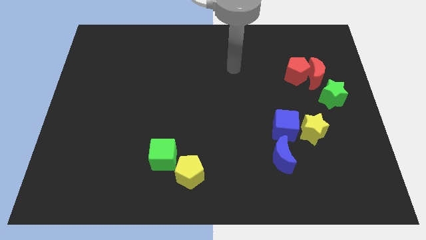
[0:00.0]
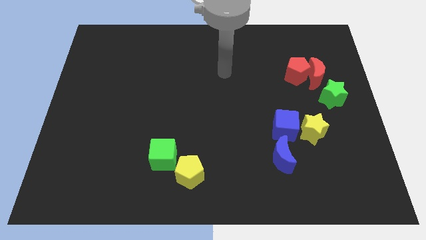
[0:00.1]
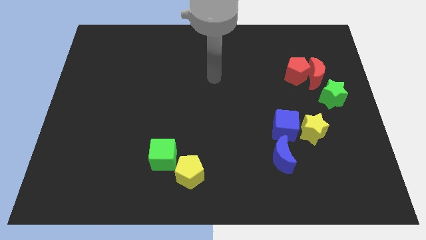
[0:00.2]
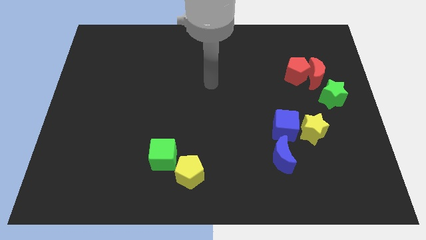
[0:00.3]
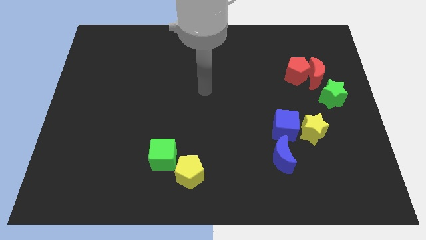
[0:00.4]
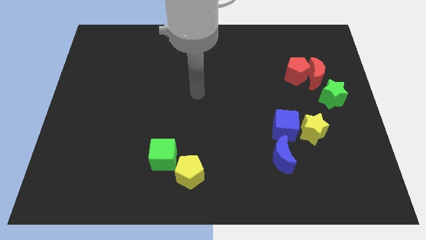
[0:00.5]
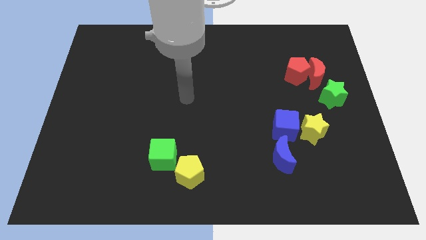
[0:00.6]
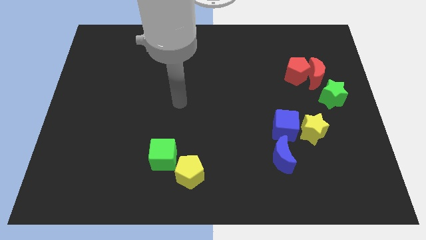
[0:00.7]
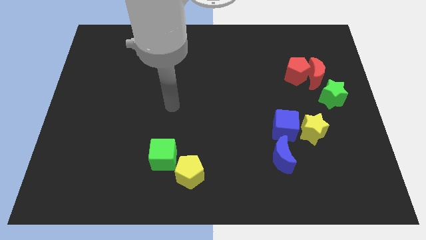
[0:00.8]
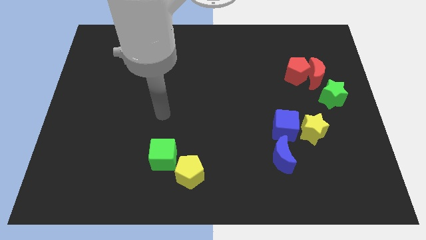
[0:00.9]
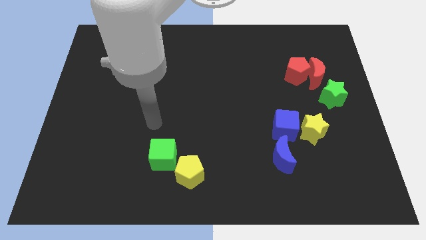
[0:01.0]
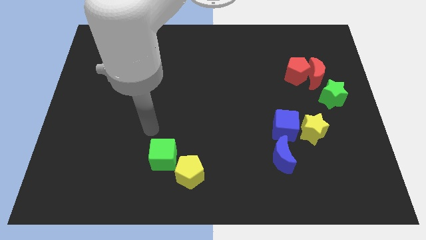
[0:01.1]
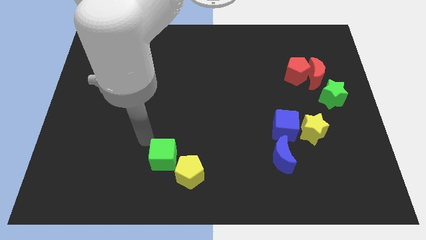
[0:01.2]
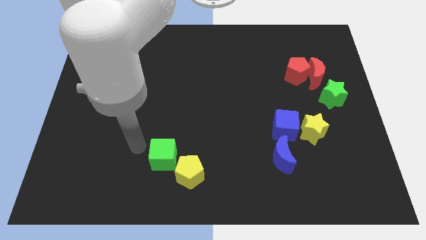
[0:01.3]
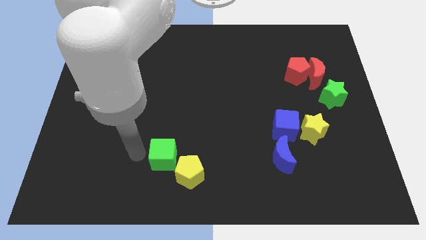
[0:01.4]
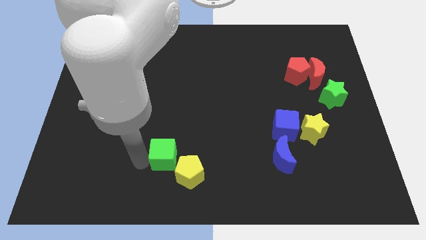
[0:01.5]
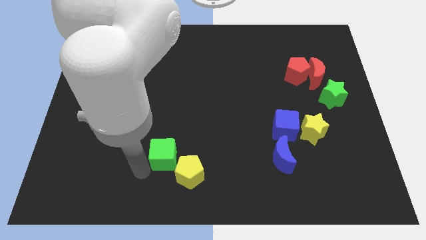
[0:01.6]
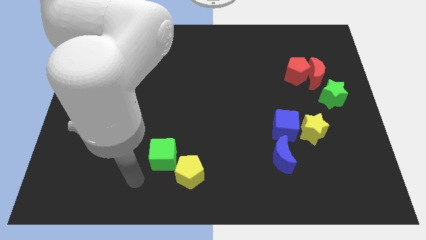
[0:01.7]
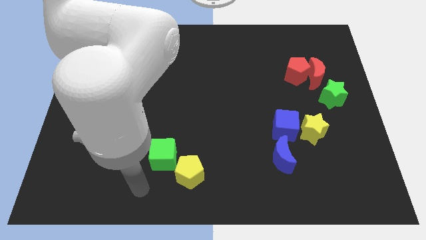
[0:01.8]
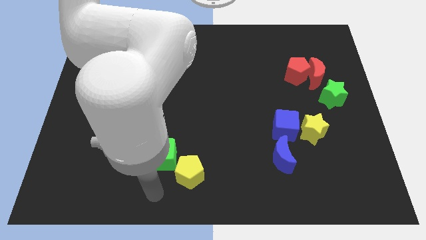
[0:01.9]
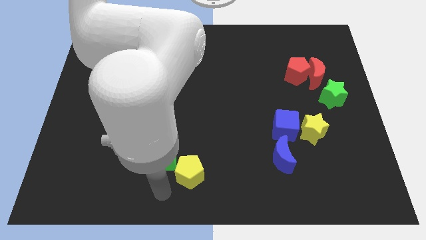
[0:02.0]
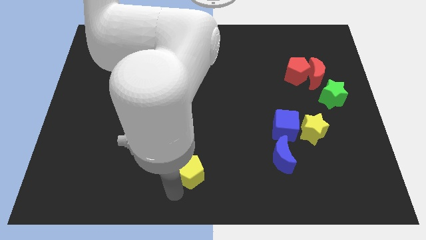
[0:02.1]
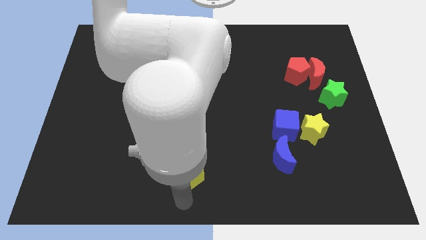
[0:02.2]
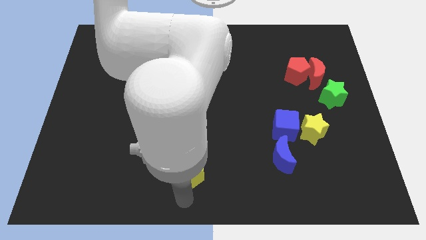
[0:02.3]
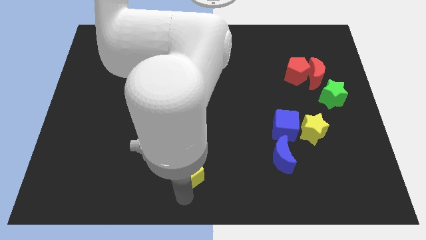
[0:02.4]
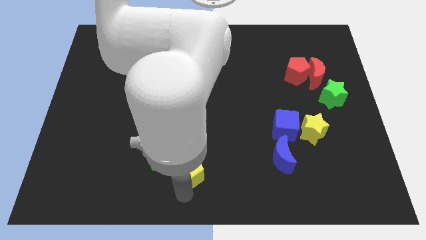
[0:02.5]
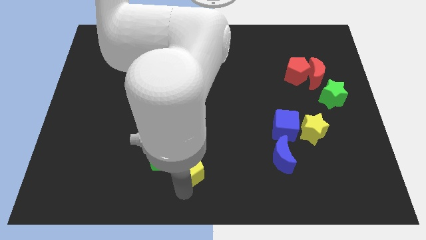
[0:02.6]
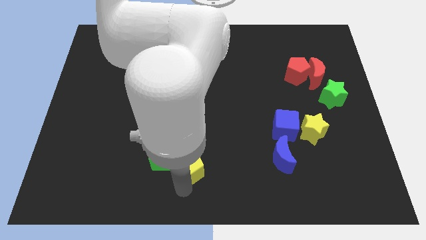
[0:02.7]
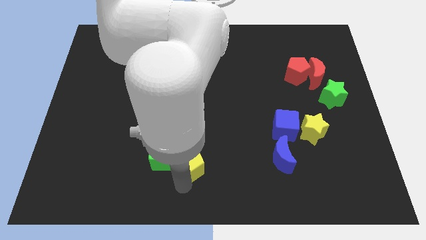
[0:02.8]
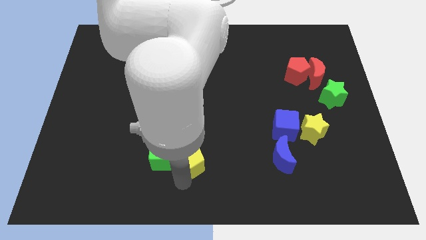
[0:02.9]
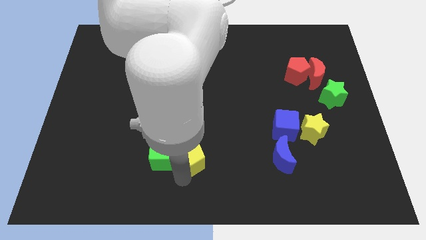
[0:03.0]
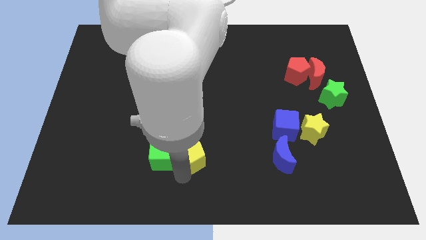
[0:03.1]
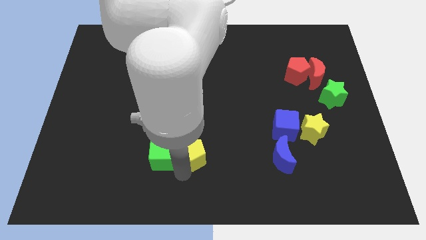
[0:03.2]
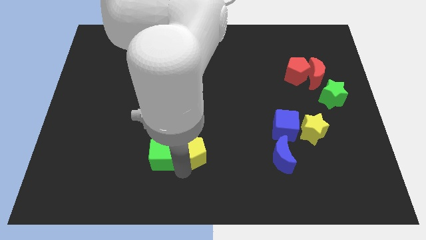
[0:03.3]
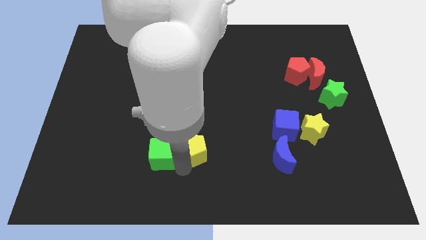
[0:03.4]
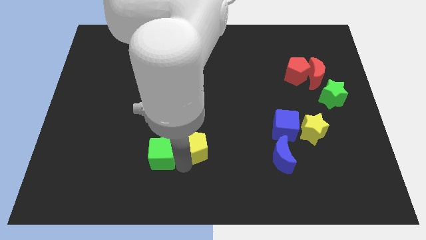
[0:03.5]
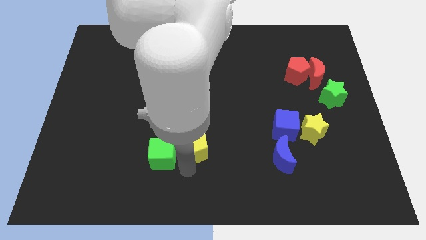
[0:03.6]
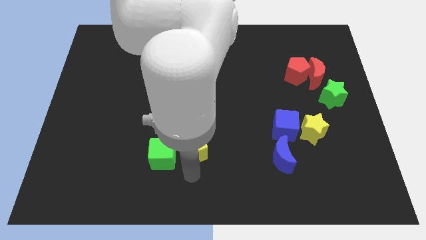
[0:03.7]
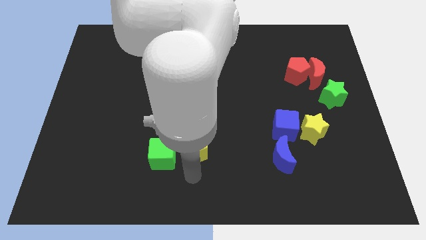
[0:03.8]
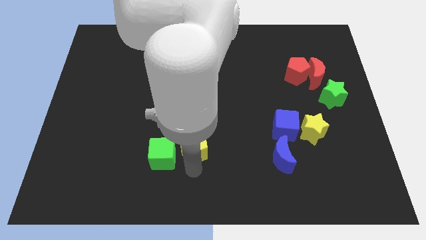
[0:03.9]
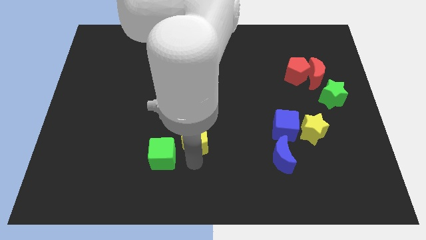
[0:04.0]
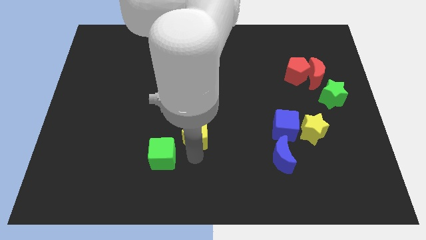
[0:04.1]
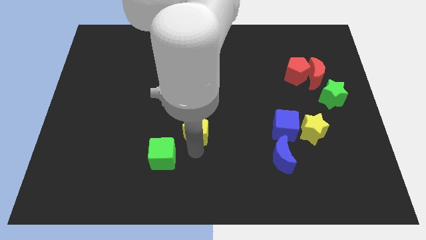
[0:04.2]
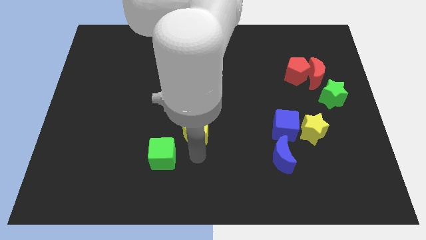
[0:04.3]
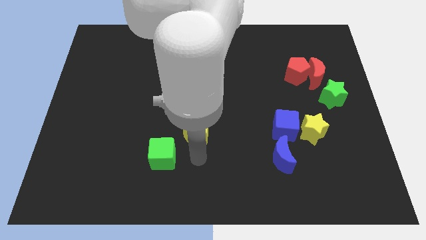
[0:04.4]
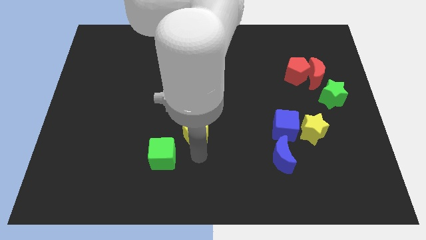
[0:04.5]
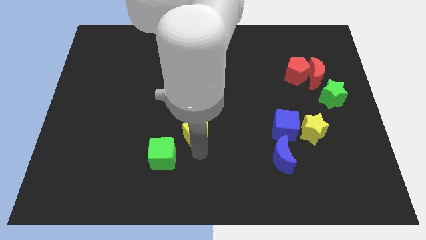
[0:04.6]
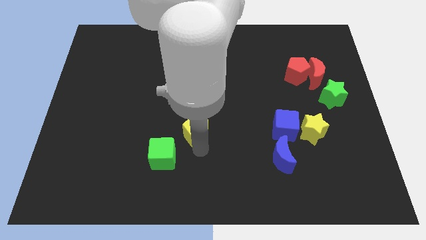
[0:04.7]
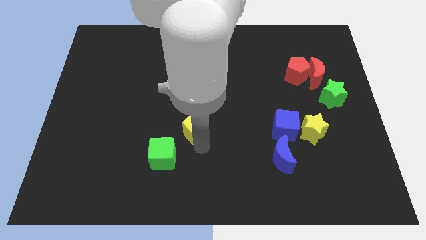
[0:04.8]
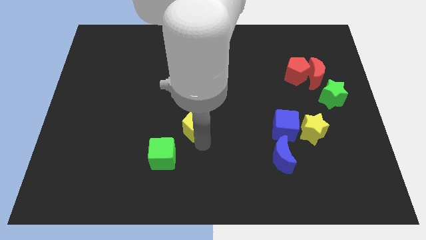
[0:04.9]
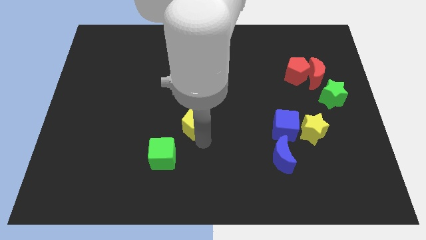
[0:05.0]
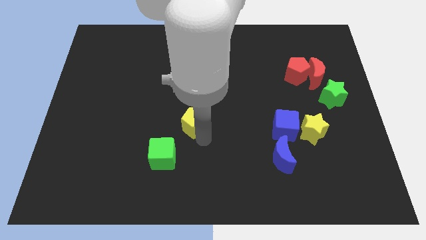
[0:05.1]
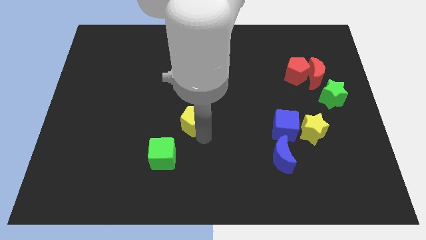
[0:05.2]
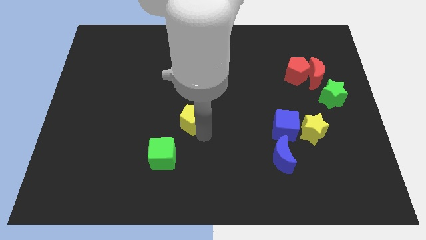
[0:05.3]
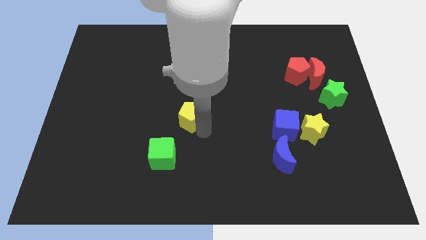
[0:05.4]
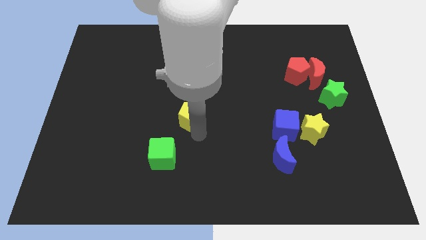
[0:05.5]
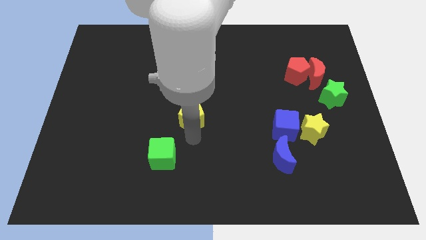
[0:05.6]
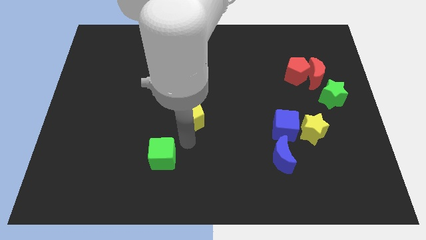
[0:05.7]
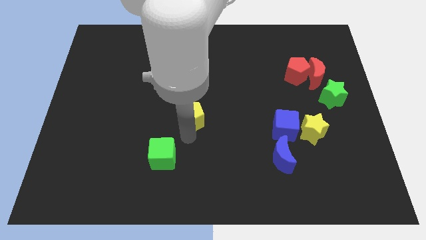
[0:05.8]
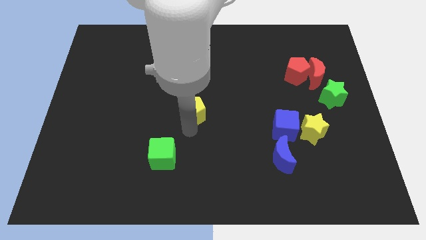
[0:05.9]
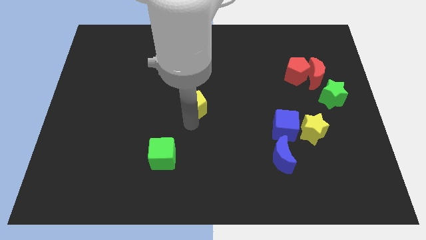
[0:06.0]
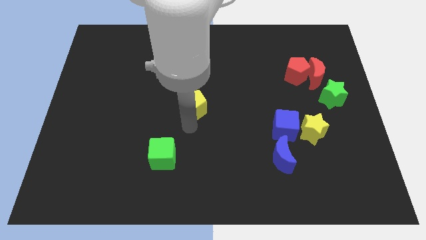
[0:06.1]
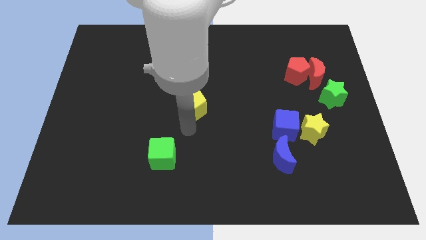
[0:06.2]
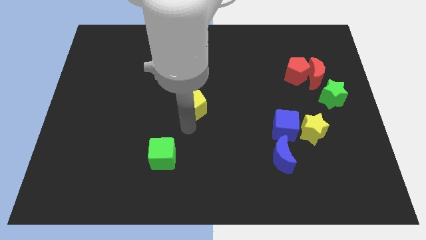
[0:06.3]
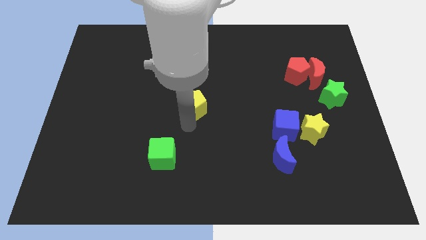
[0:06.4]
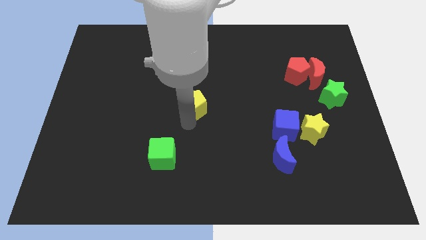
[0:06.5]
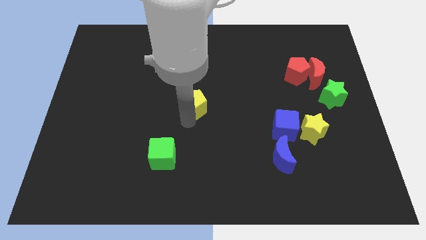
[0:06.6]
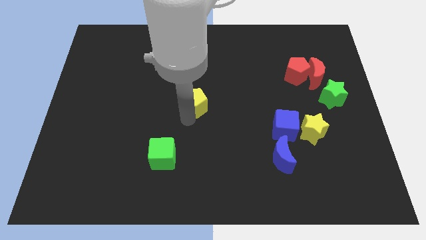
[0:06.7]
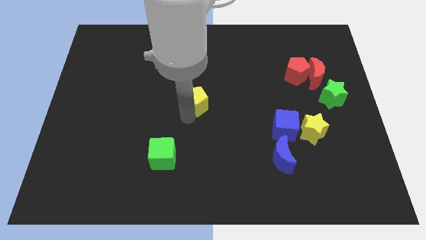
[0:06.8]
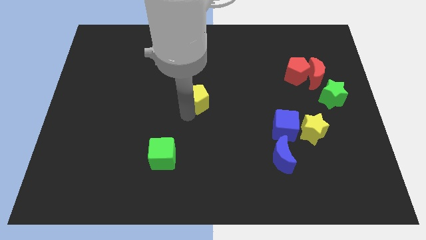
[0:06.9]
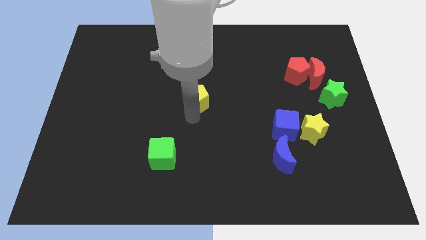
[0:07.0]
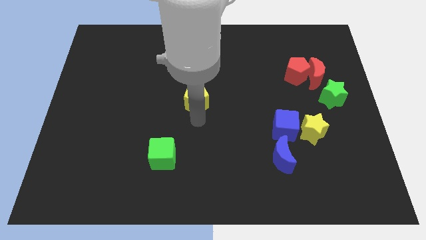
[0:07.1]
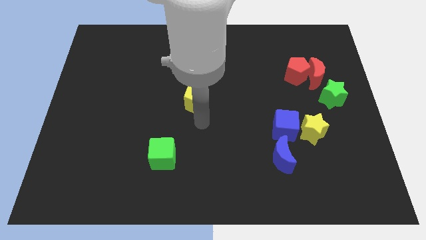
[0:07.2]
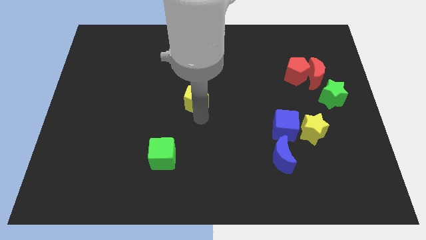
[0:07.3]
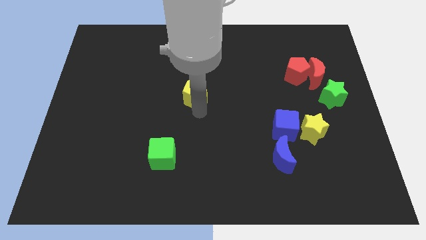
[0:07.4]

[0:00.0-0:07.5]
move the yellow pentagon upwards

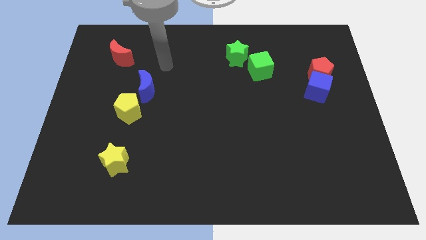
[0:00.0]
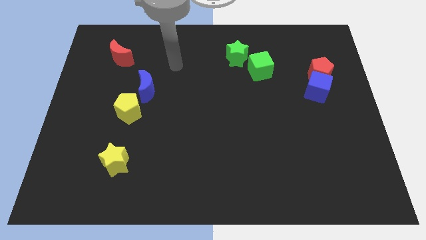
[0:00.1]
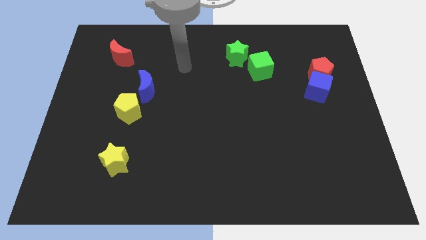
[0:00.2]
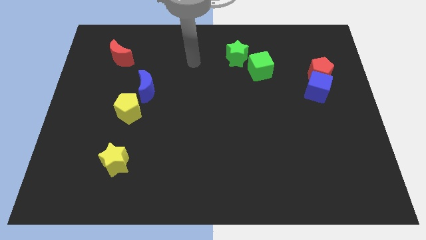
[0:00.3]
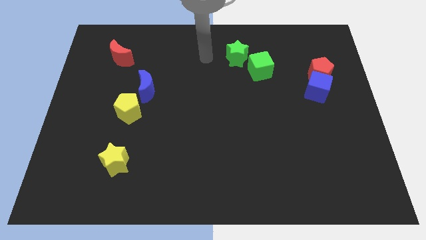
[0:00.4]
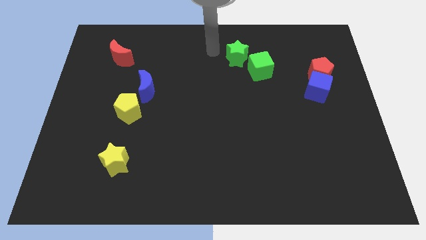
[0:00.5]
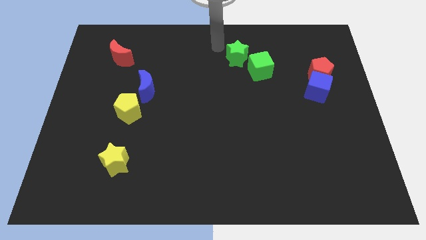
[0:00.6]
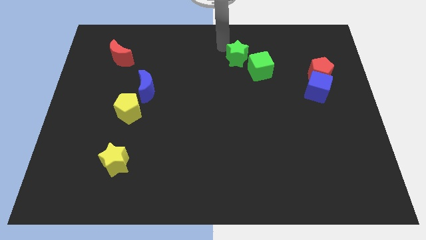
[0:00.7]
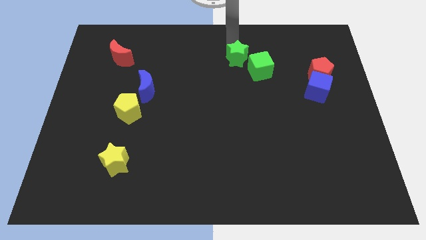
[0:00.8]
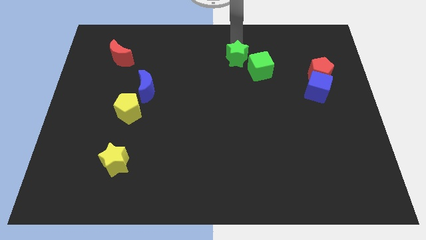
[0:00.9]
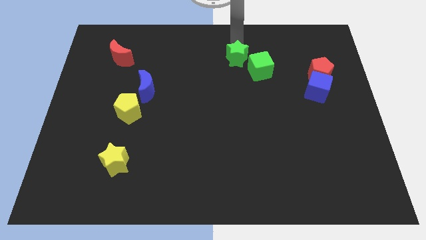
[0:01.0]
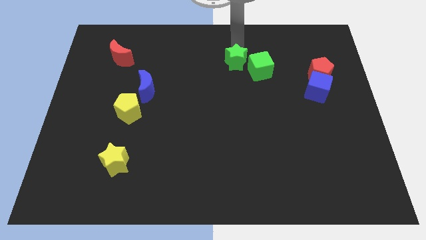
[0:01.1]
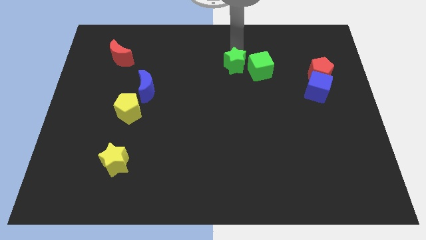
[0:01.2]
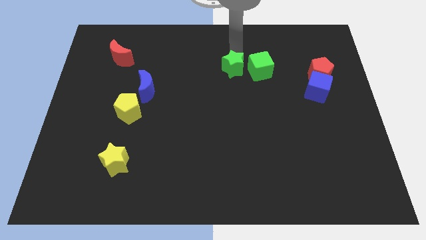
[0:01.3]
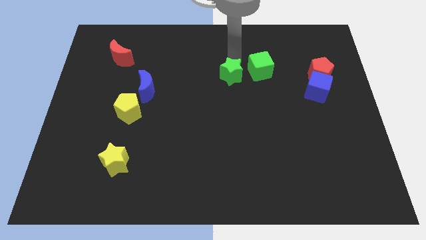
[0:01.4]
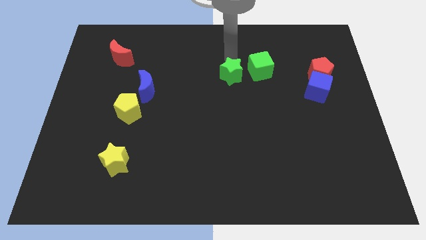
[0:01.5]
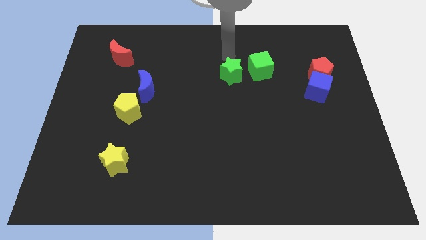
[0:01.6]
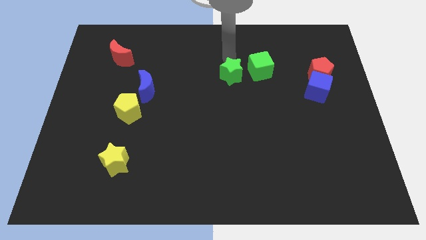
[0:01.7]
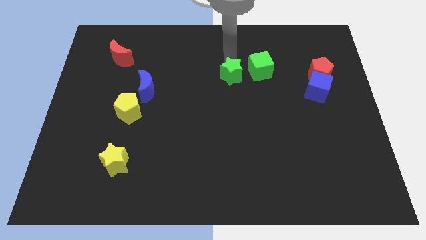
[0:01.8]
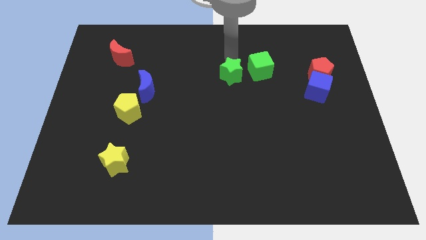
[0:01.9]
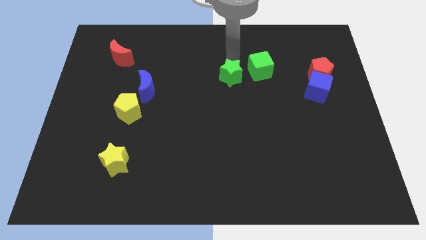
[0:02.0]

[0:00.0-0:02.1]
move the green star downwards somewhat
